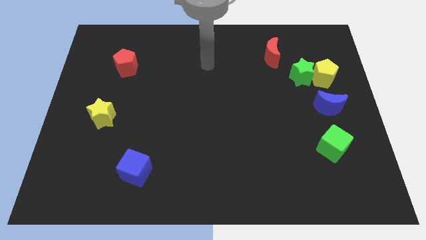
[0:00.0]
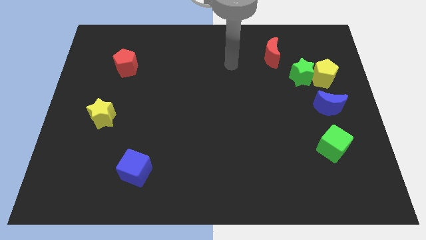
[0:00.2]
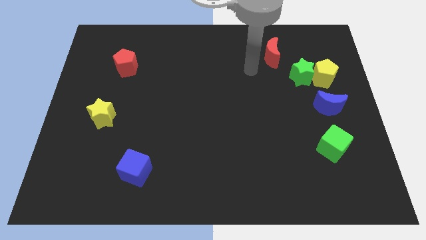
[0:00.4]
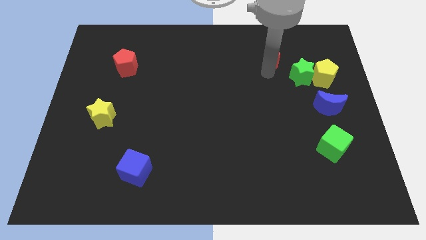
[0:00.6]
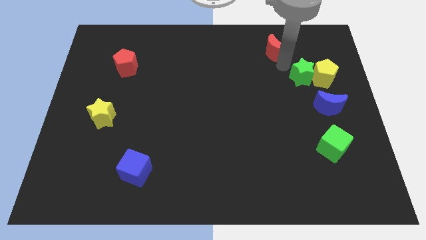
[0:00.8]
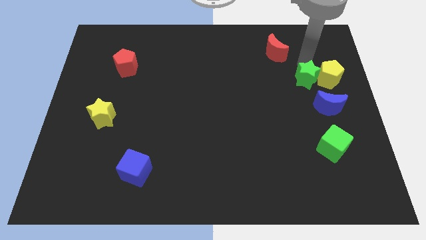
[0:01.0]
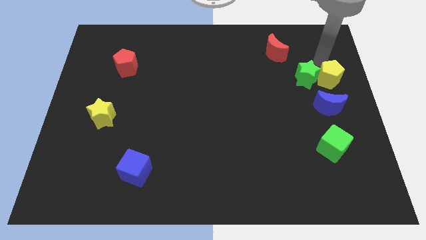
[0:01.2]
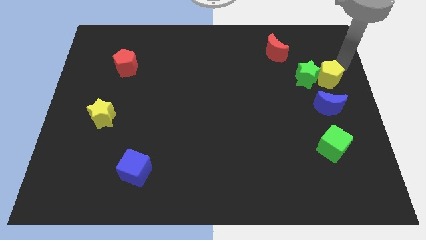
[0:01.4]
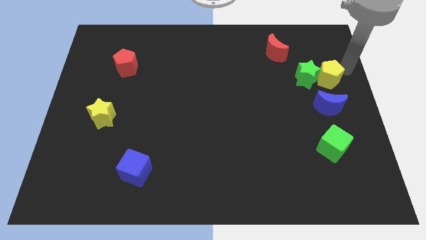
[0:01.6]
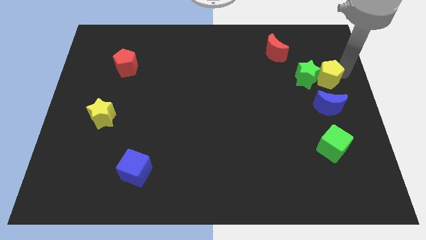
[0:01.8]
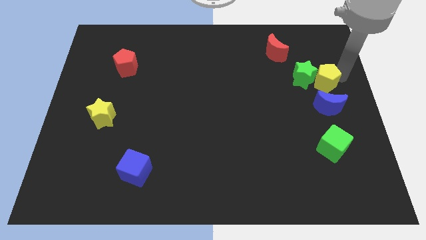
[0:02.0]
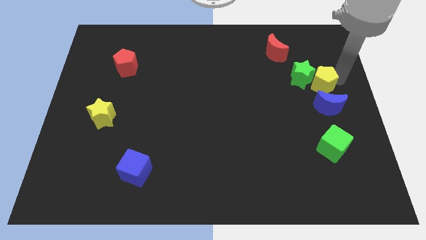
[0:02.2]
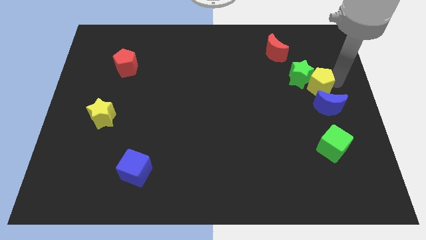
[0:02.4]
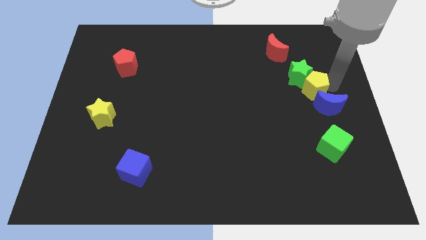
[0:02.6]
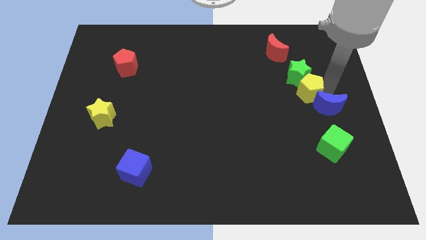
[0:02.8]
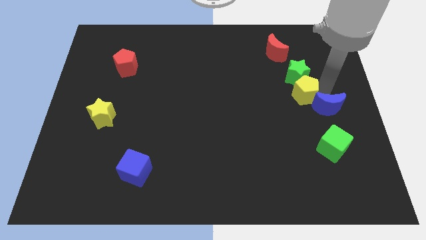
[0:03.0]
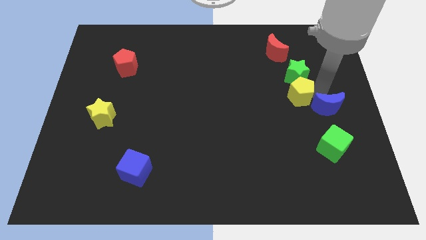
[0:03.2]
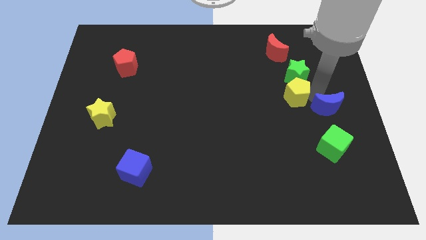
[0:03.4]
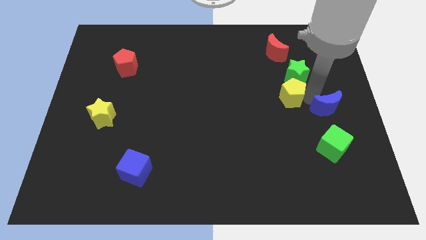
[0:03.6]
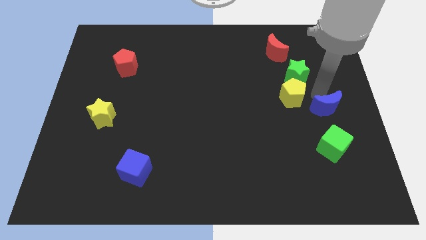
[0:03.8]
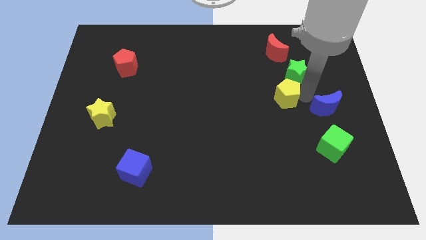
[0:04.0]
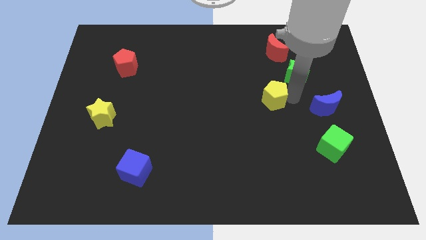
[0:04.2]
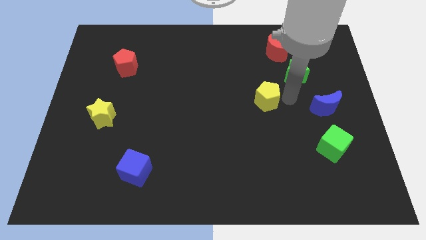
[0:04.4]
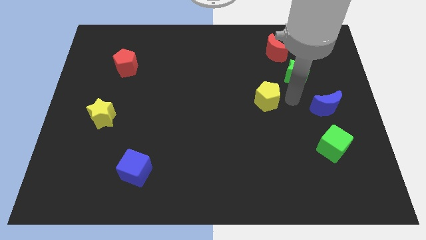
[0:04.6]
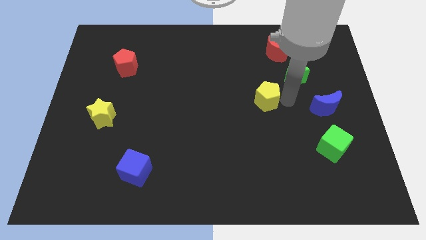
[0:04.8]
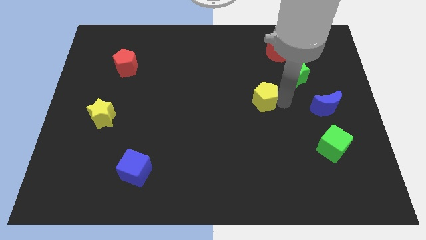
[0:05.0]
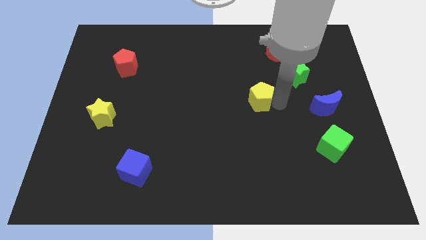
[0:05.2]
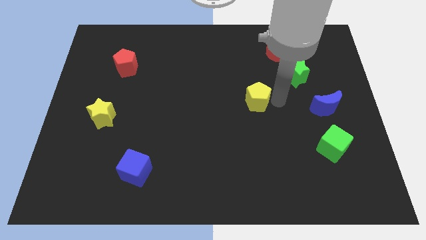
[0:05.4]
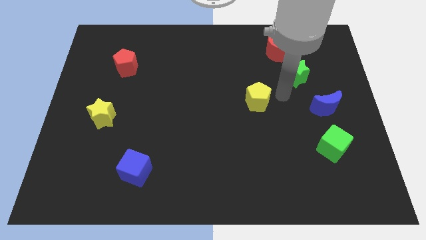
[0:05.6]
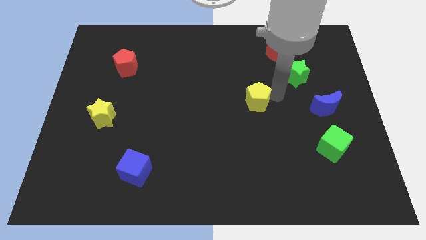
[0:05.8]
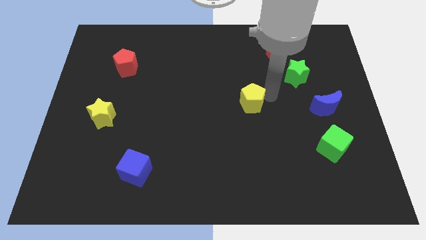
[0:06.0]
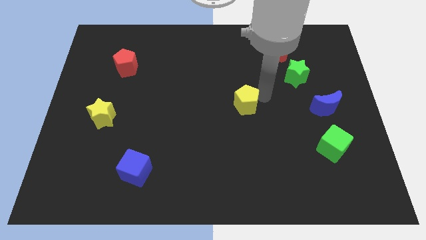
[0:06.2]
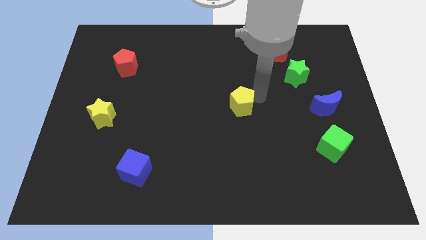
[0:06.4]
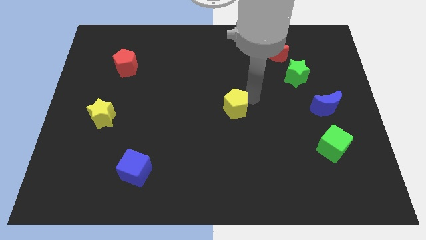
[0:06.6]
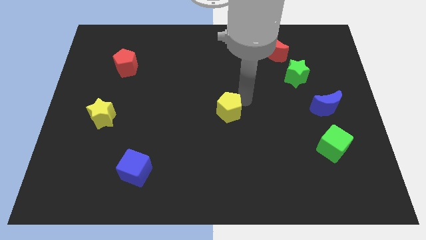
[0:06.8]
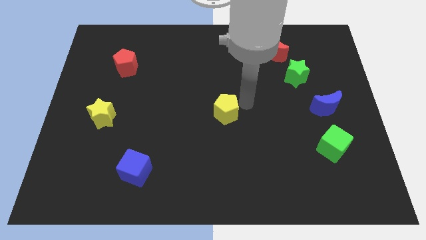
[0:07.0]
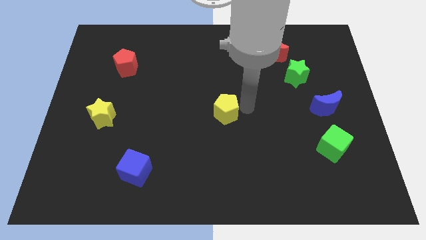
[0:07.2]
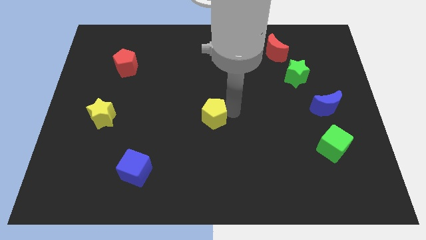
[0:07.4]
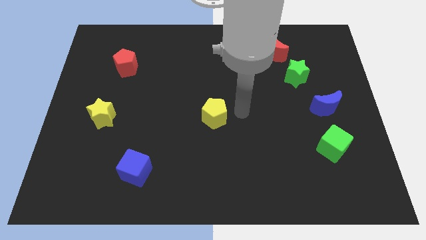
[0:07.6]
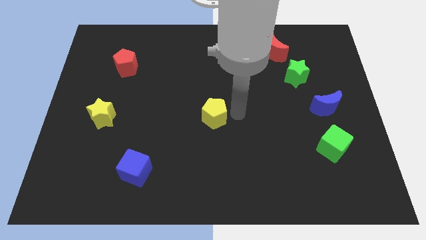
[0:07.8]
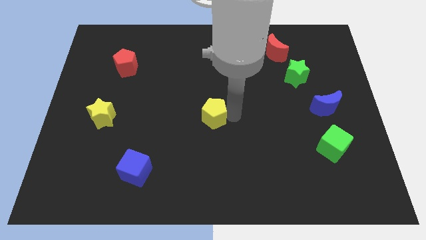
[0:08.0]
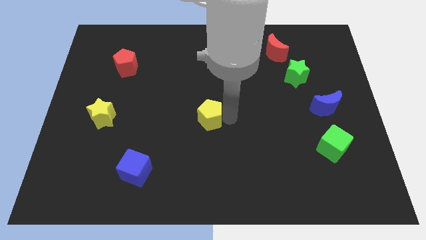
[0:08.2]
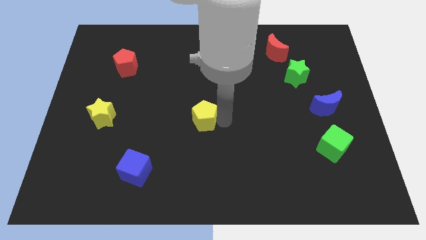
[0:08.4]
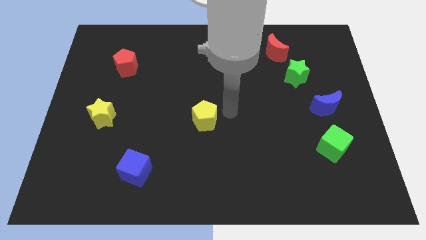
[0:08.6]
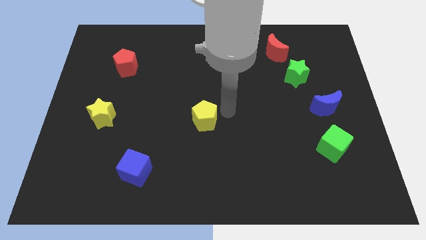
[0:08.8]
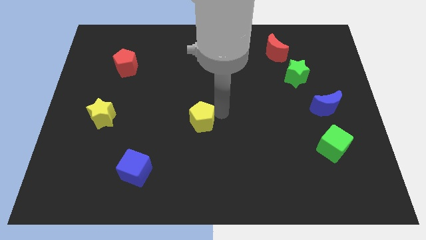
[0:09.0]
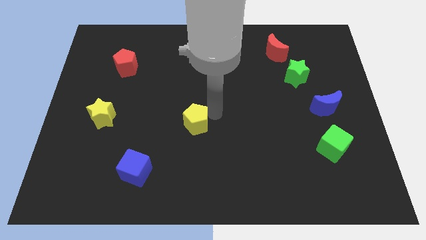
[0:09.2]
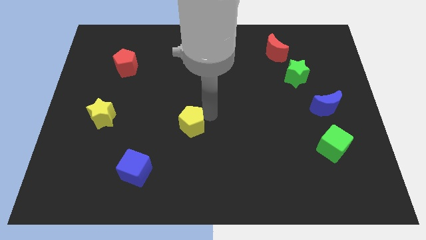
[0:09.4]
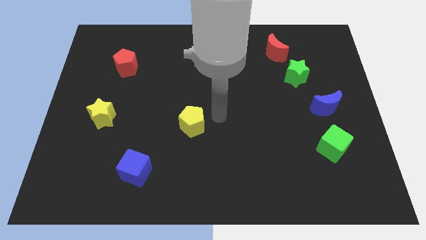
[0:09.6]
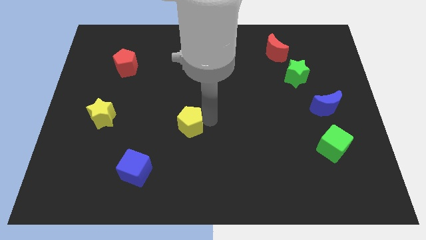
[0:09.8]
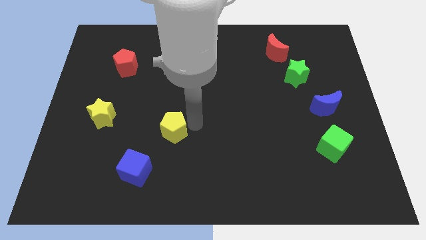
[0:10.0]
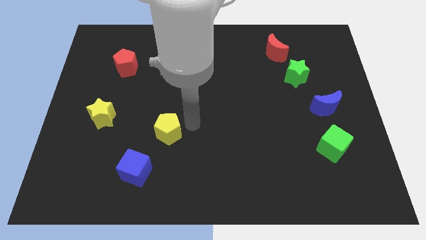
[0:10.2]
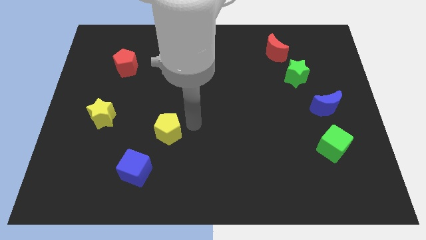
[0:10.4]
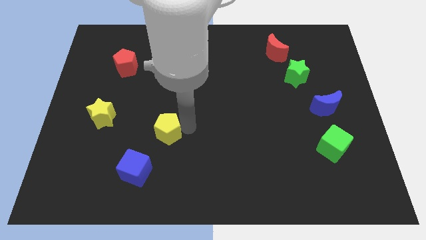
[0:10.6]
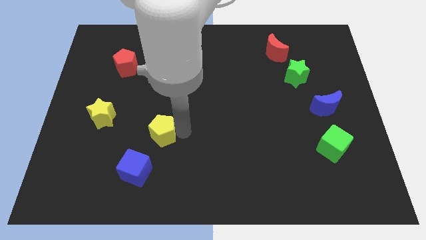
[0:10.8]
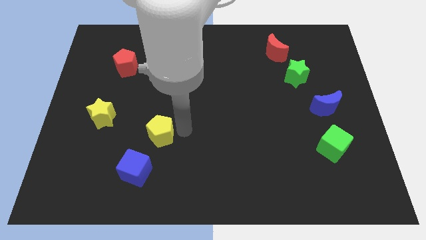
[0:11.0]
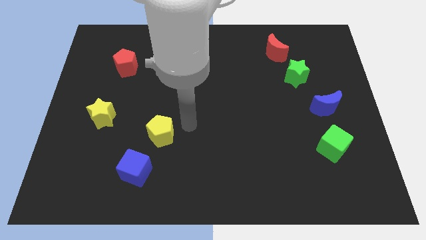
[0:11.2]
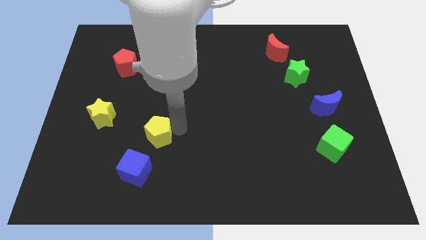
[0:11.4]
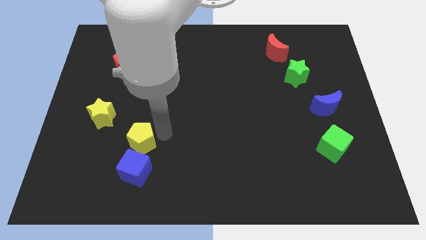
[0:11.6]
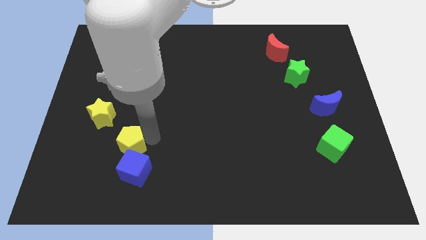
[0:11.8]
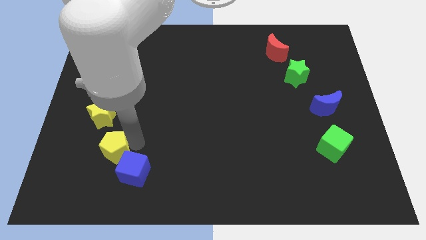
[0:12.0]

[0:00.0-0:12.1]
push the yellow pentagon just left of the blue cube

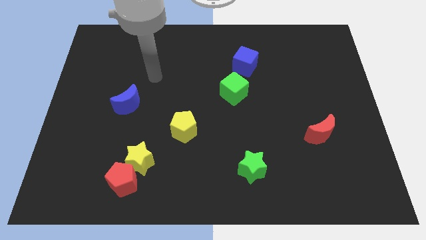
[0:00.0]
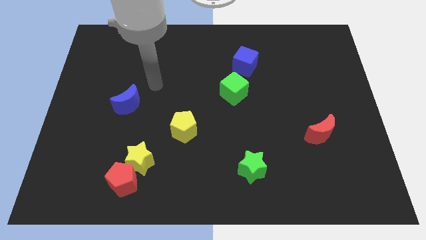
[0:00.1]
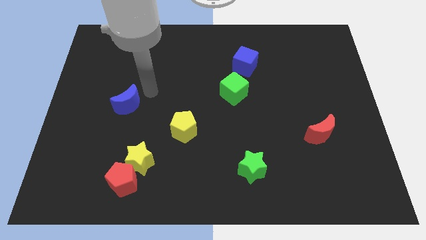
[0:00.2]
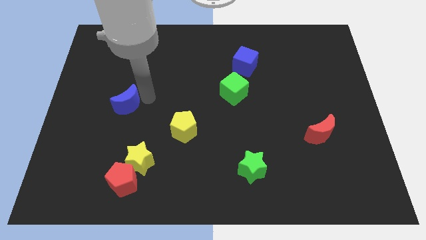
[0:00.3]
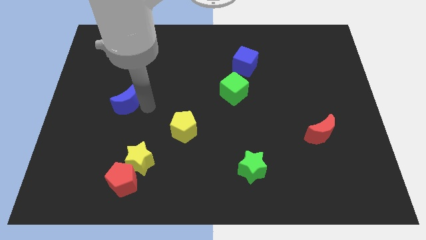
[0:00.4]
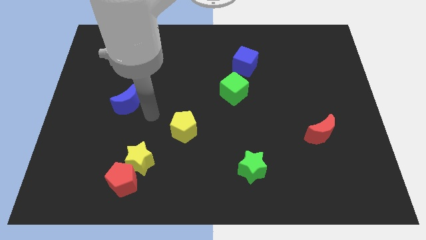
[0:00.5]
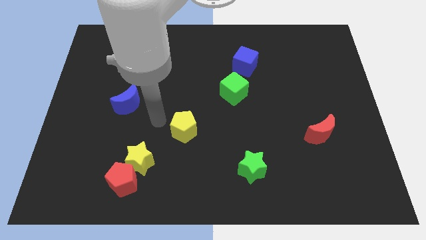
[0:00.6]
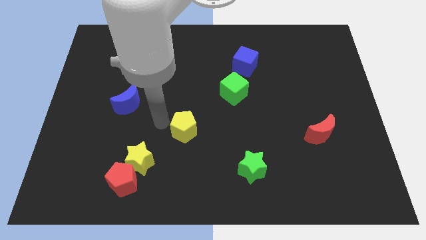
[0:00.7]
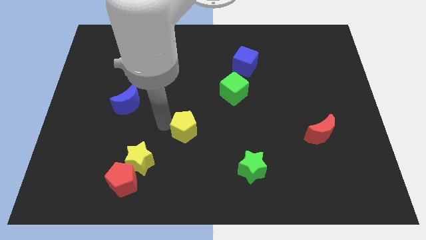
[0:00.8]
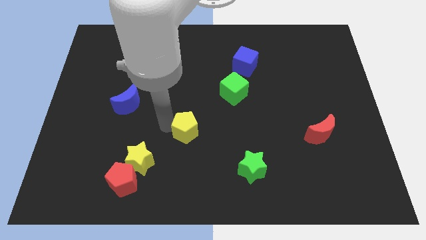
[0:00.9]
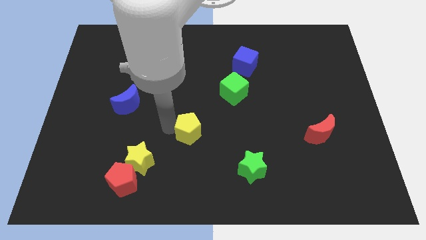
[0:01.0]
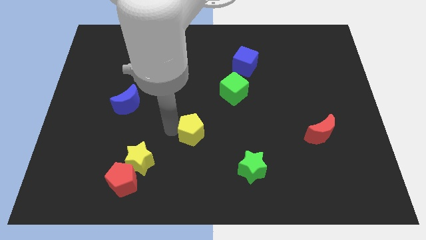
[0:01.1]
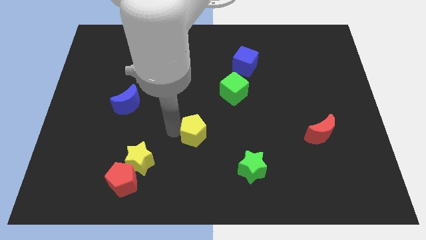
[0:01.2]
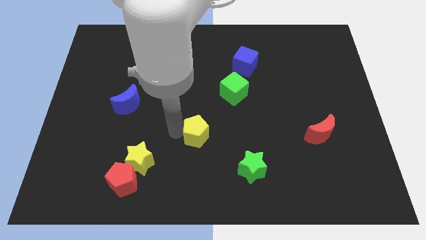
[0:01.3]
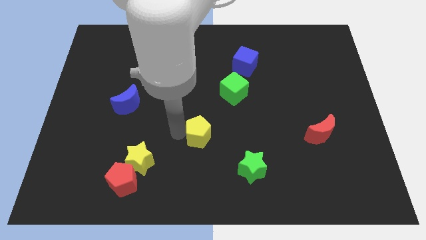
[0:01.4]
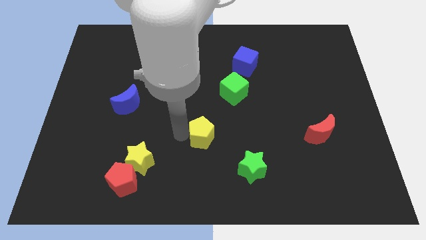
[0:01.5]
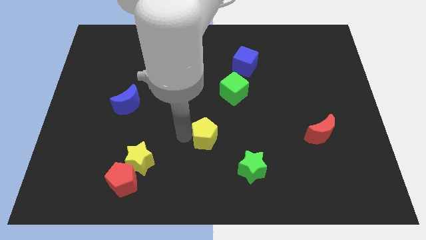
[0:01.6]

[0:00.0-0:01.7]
move the yellow pentagon to the top left side of the green star
